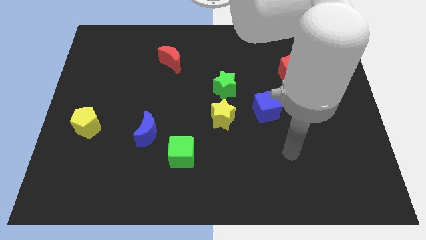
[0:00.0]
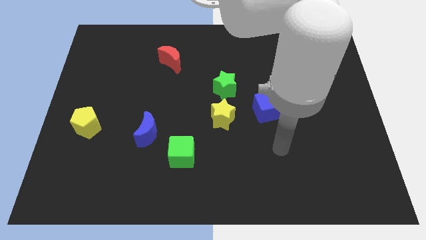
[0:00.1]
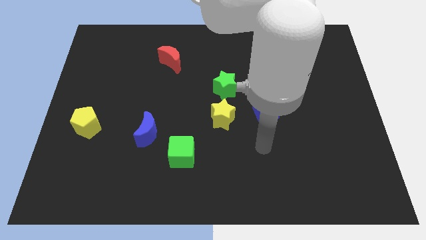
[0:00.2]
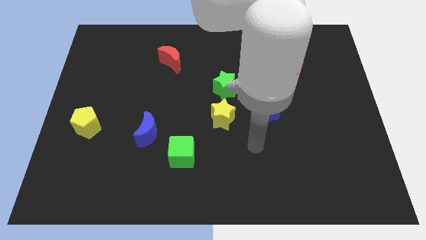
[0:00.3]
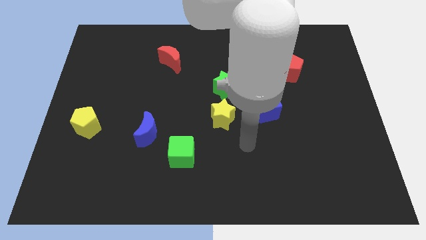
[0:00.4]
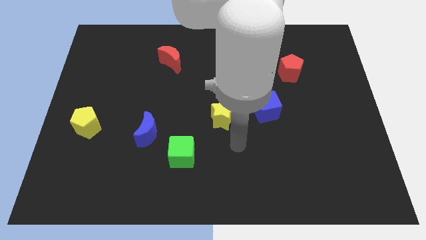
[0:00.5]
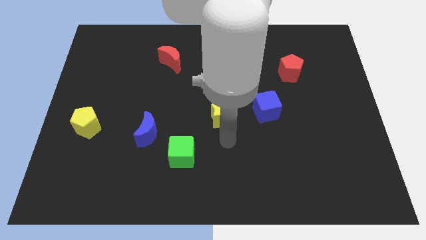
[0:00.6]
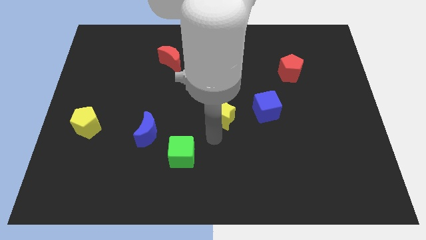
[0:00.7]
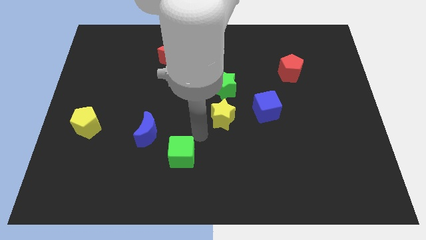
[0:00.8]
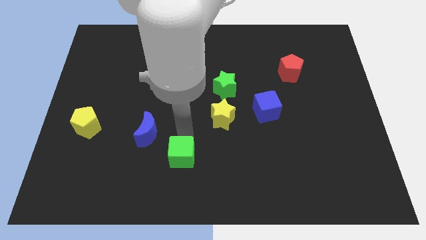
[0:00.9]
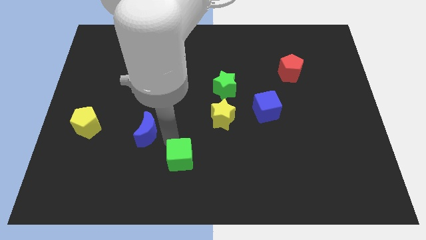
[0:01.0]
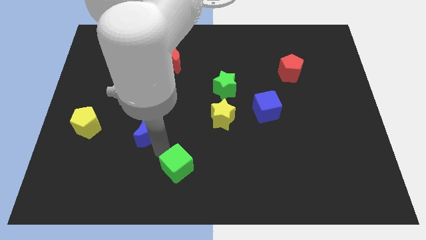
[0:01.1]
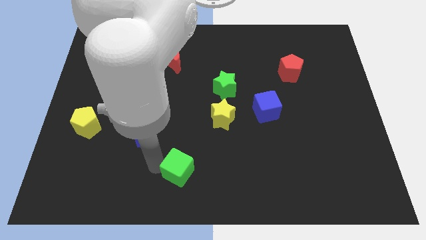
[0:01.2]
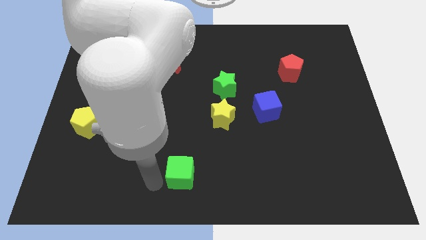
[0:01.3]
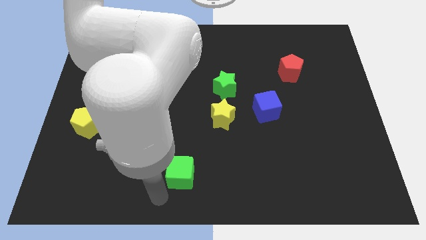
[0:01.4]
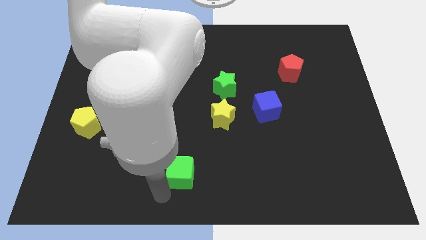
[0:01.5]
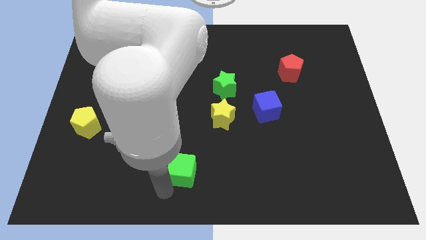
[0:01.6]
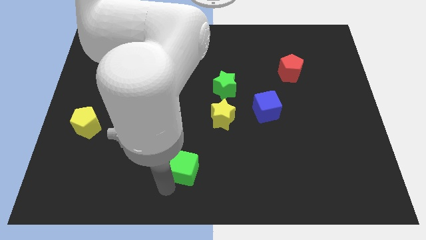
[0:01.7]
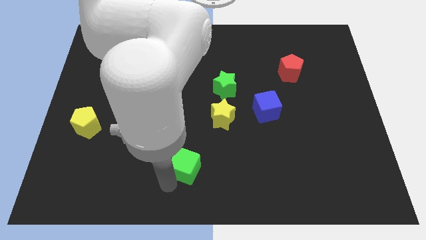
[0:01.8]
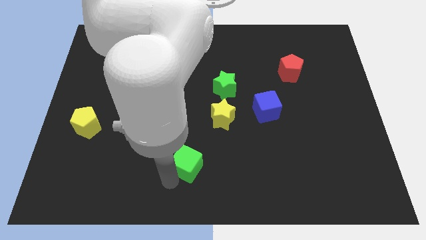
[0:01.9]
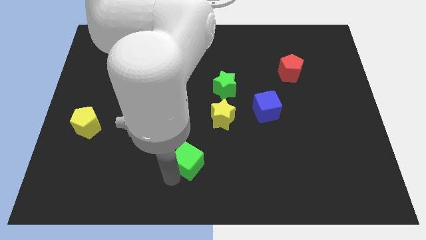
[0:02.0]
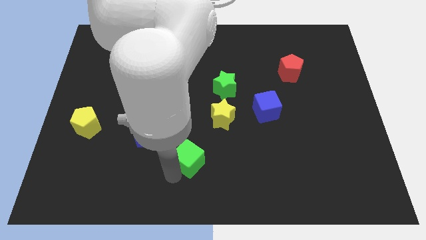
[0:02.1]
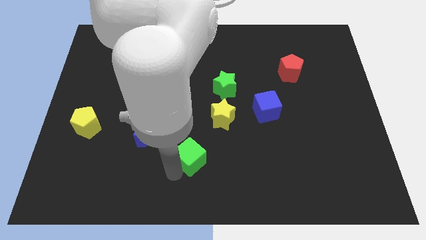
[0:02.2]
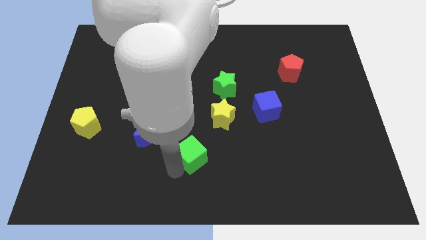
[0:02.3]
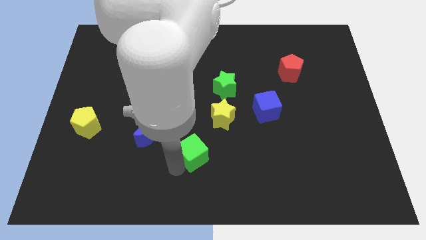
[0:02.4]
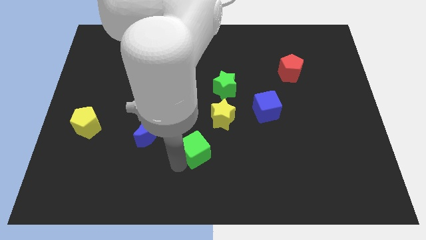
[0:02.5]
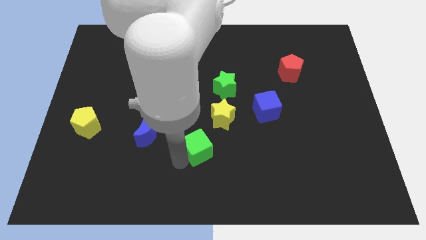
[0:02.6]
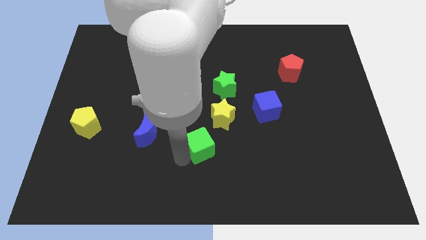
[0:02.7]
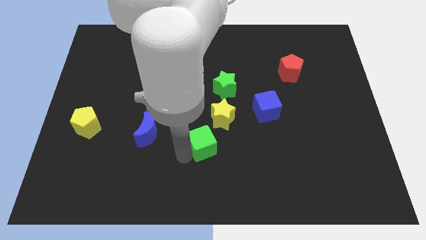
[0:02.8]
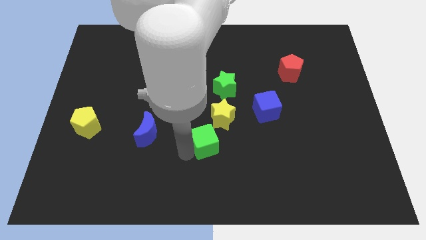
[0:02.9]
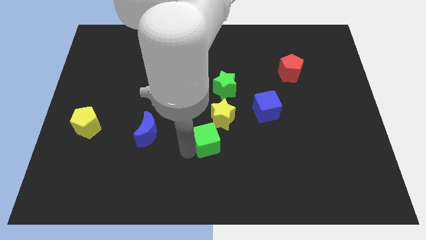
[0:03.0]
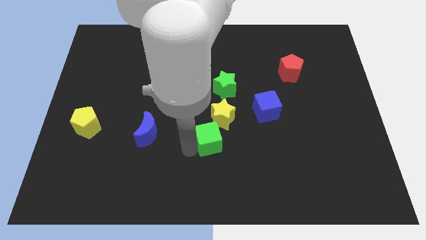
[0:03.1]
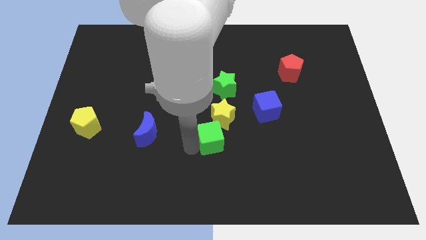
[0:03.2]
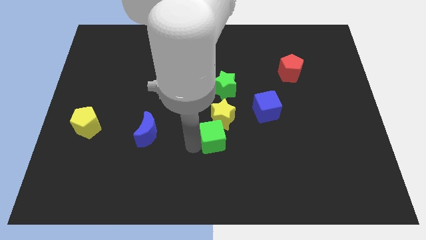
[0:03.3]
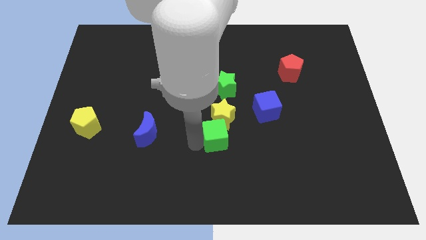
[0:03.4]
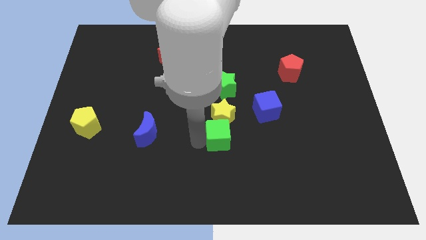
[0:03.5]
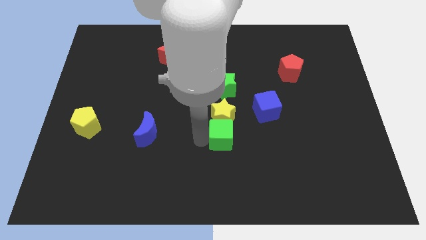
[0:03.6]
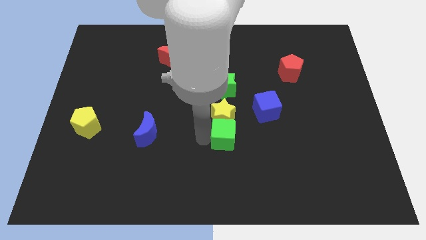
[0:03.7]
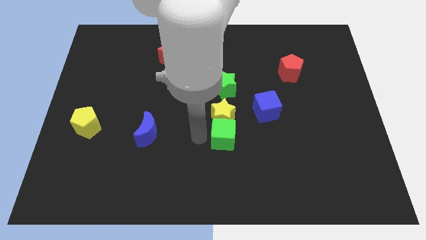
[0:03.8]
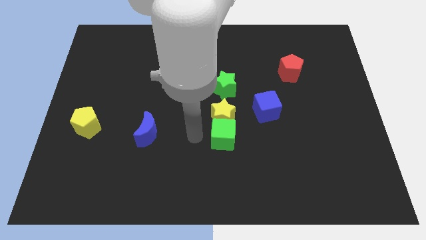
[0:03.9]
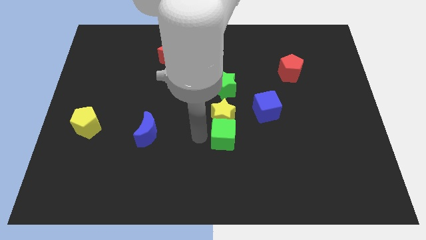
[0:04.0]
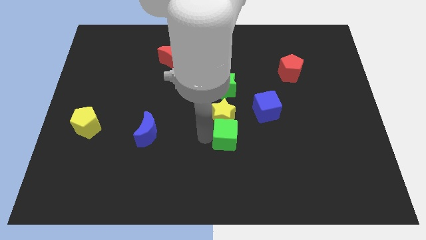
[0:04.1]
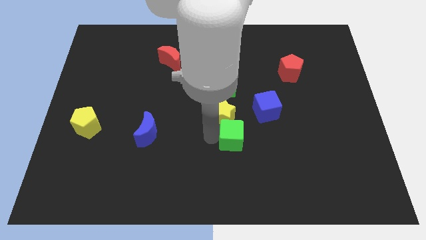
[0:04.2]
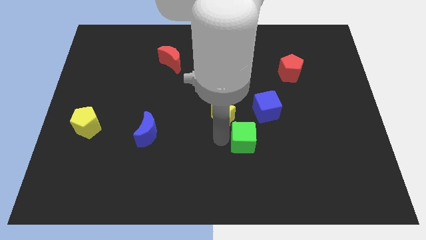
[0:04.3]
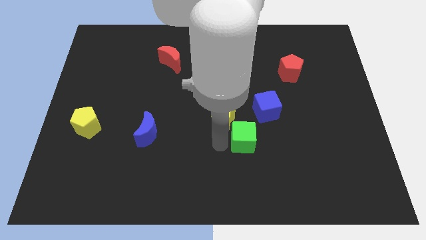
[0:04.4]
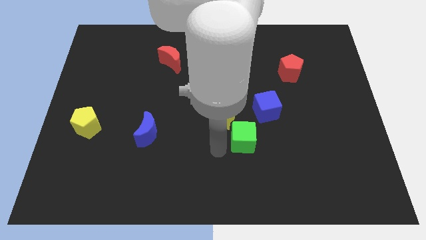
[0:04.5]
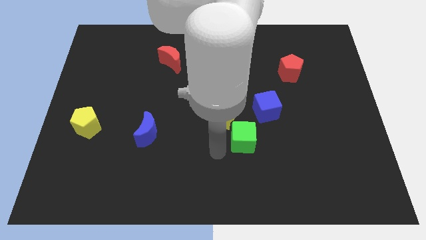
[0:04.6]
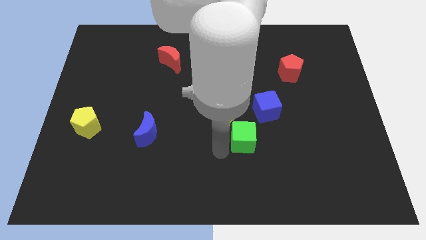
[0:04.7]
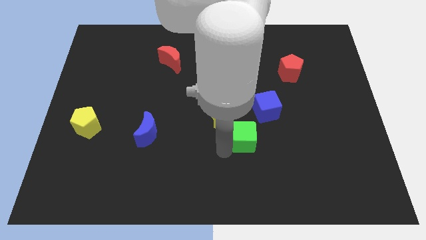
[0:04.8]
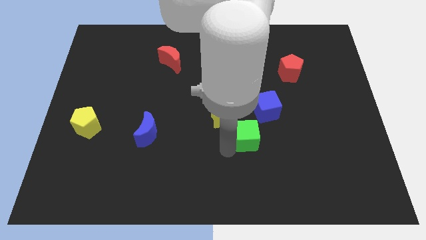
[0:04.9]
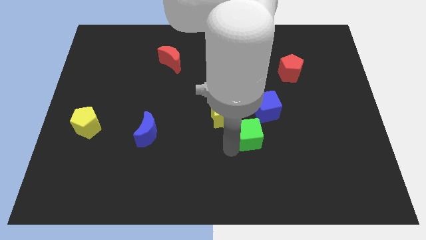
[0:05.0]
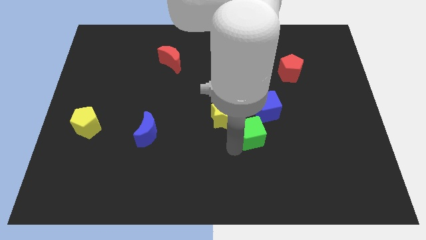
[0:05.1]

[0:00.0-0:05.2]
push the green cube to the right of the yellow star

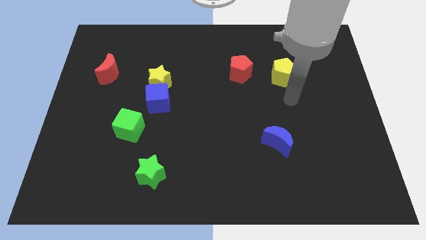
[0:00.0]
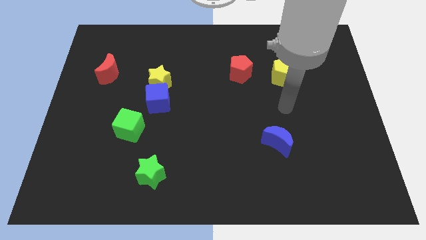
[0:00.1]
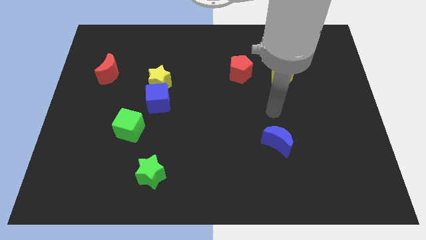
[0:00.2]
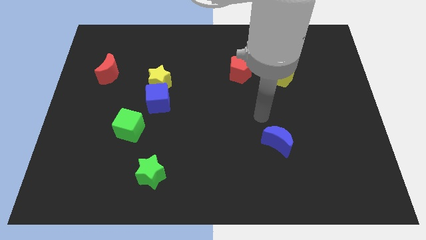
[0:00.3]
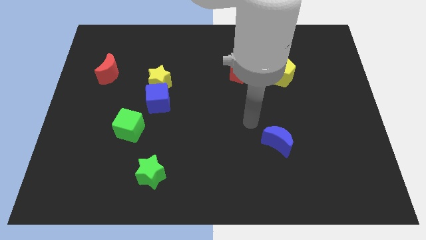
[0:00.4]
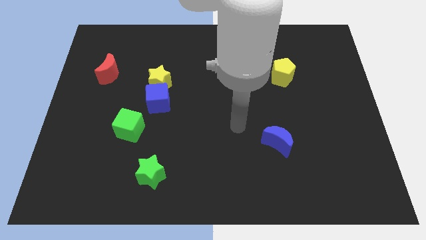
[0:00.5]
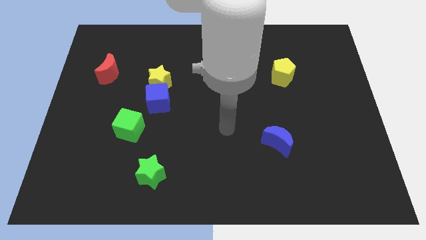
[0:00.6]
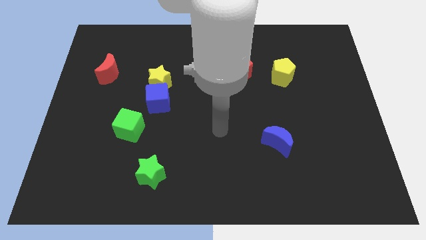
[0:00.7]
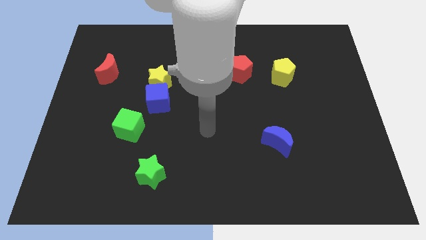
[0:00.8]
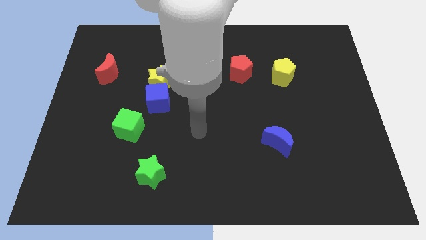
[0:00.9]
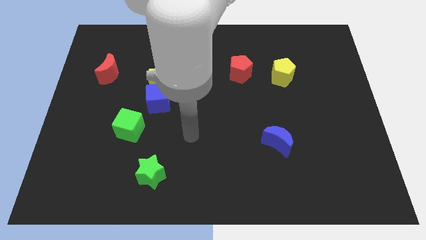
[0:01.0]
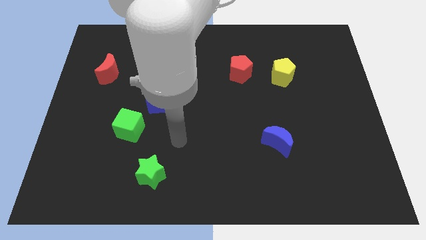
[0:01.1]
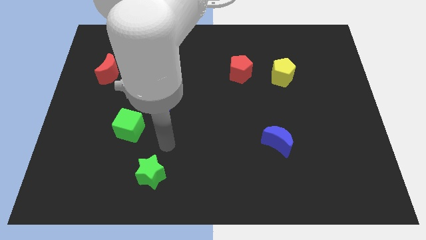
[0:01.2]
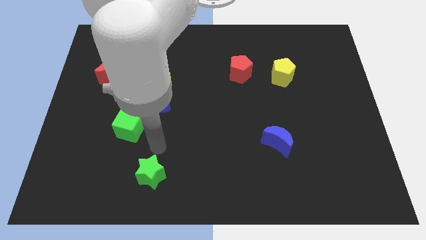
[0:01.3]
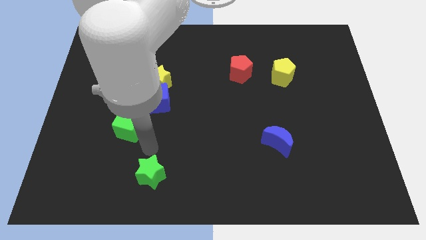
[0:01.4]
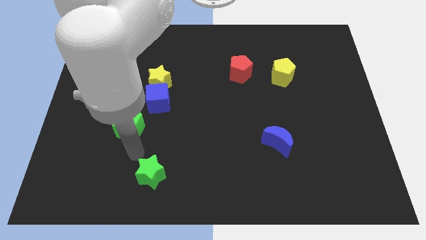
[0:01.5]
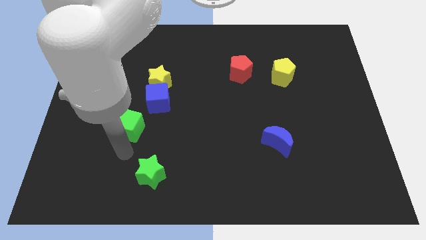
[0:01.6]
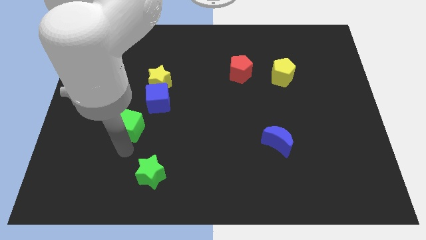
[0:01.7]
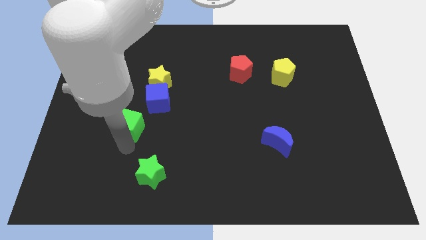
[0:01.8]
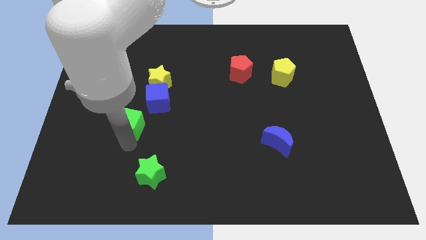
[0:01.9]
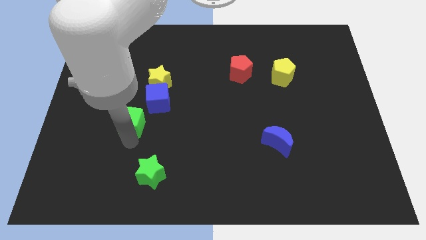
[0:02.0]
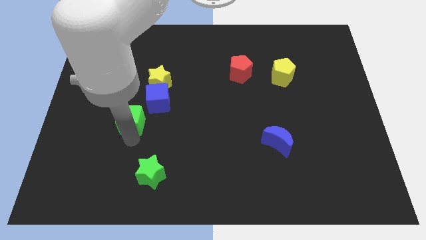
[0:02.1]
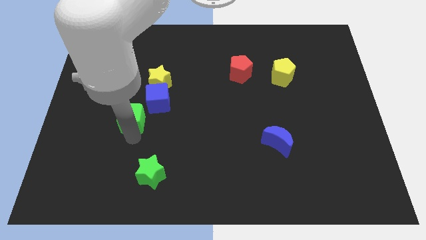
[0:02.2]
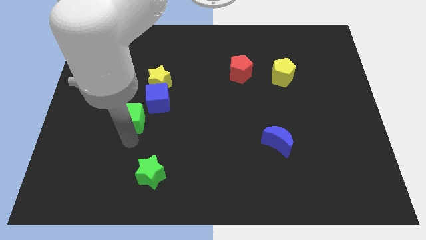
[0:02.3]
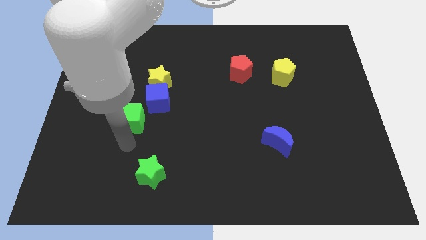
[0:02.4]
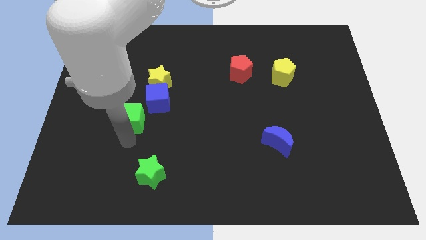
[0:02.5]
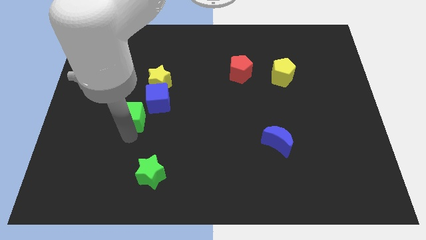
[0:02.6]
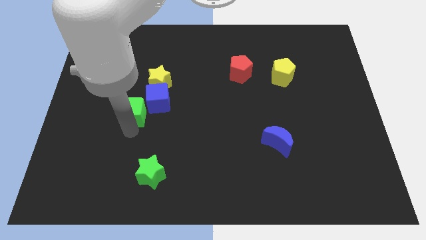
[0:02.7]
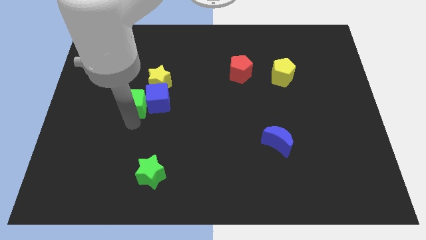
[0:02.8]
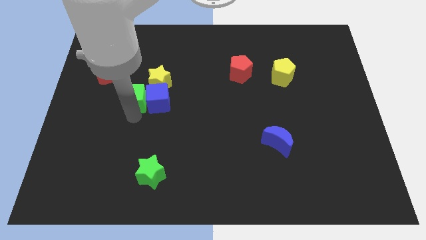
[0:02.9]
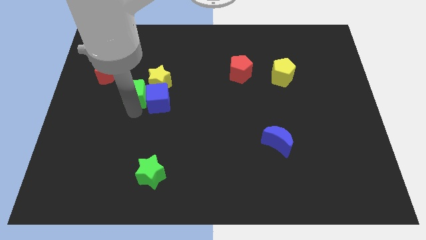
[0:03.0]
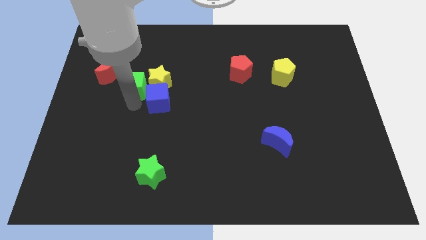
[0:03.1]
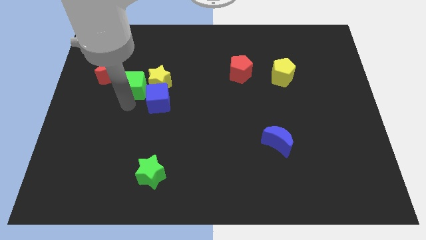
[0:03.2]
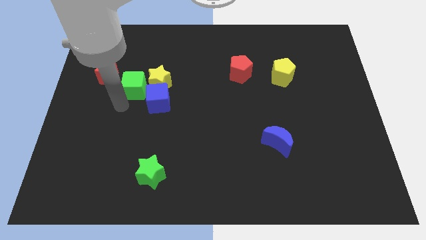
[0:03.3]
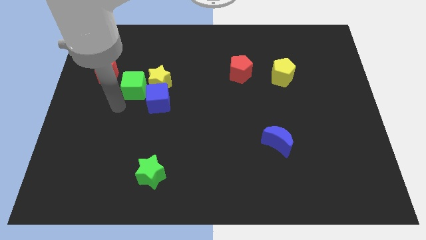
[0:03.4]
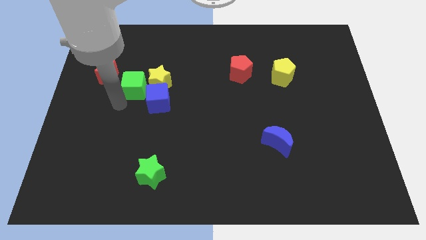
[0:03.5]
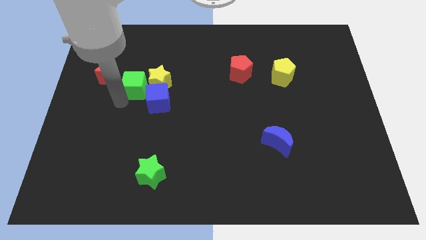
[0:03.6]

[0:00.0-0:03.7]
slide the green cube to the right of the red moon
